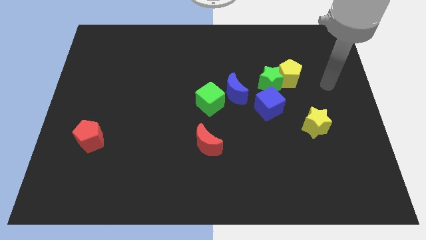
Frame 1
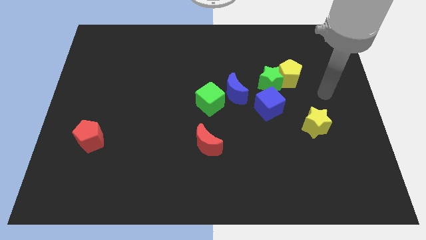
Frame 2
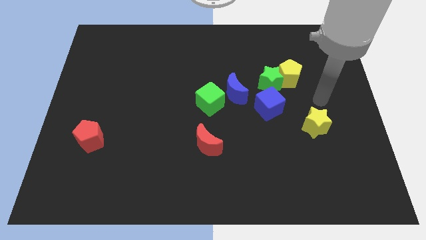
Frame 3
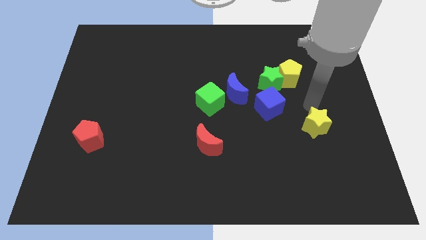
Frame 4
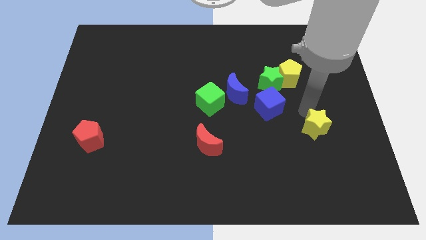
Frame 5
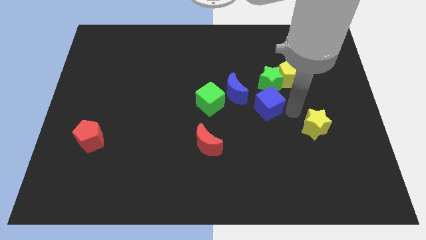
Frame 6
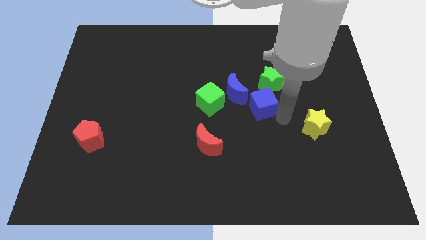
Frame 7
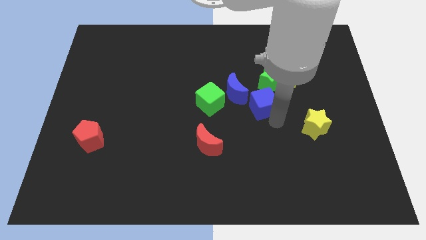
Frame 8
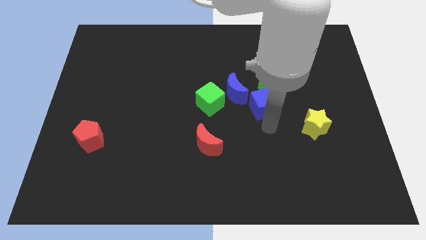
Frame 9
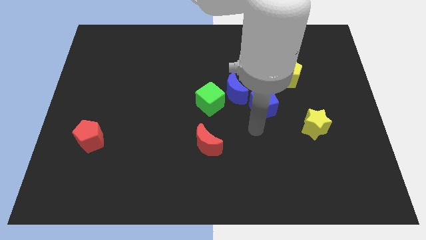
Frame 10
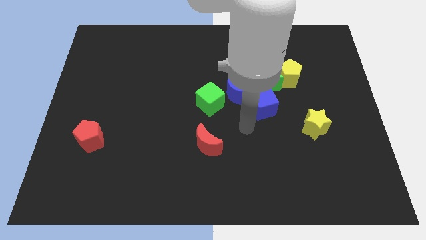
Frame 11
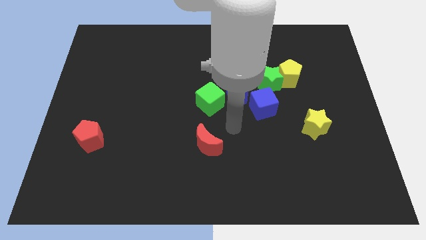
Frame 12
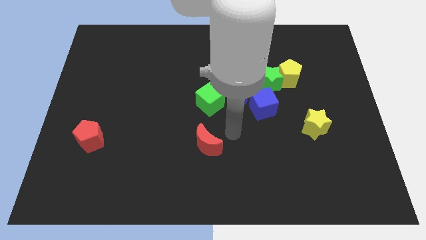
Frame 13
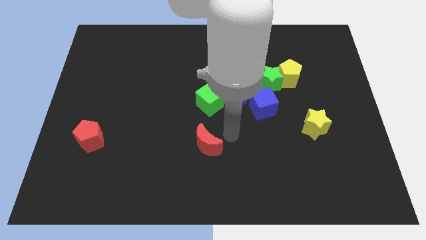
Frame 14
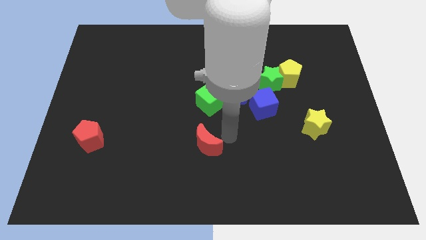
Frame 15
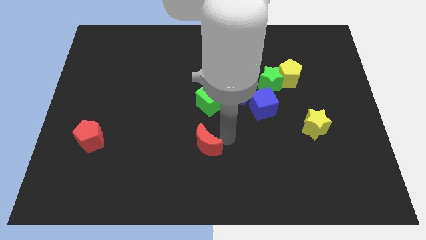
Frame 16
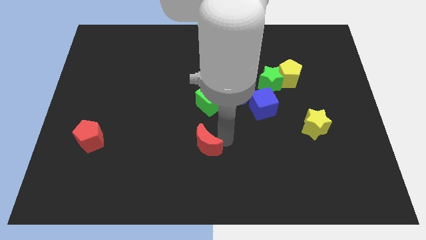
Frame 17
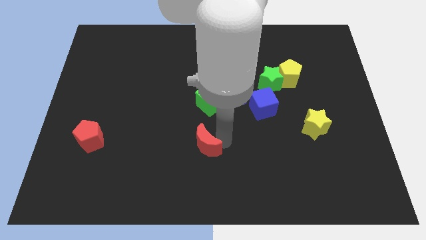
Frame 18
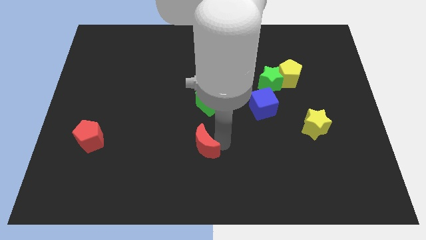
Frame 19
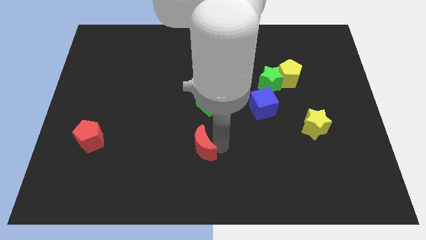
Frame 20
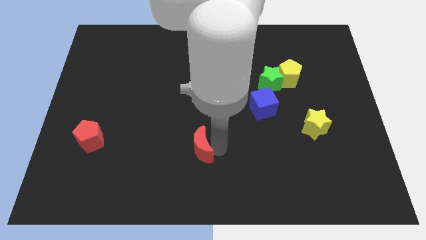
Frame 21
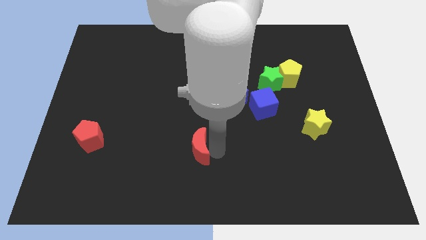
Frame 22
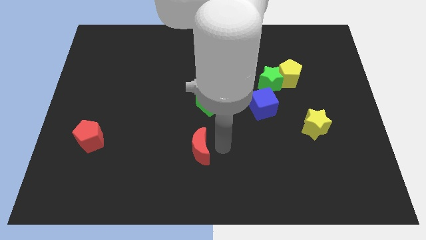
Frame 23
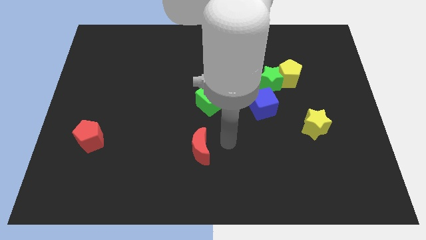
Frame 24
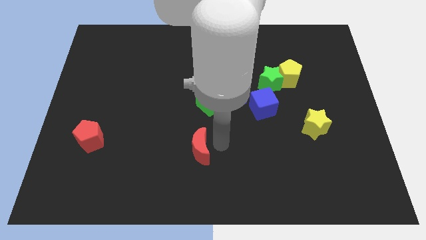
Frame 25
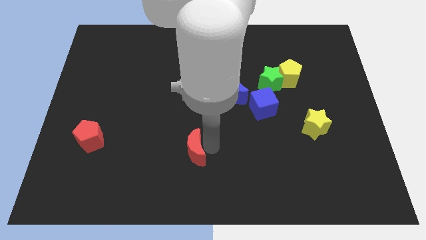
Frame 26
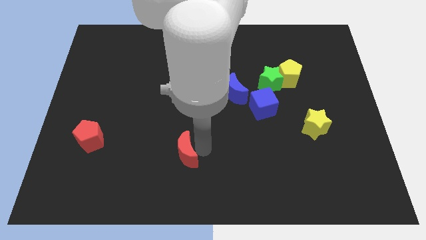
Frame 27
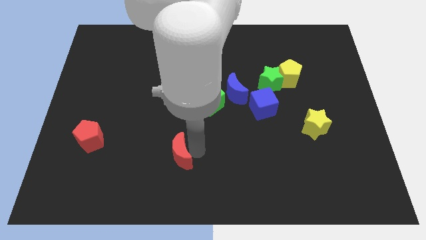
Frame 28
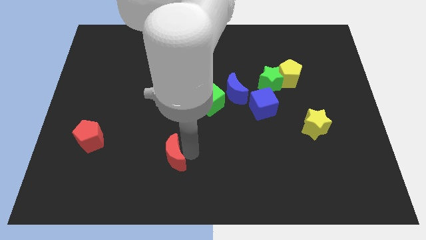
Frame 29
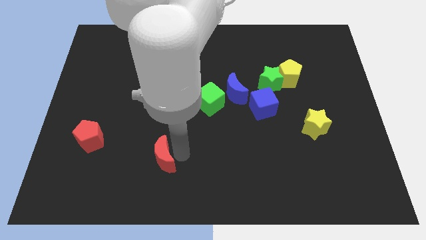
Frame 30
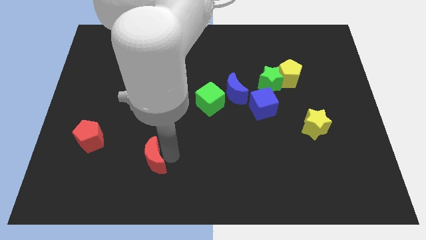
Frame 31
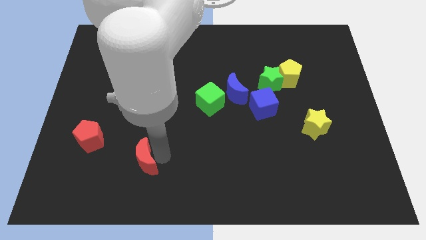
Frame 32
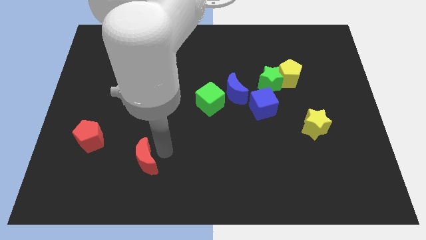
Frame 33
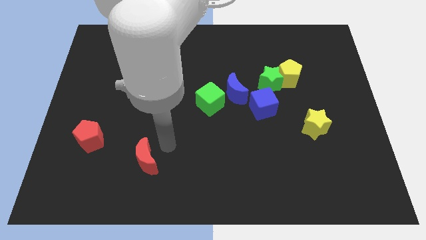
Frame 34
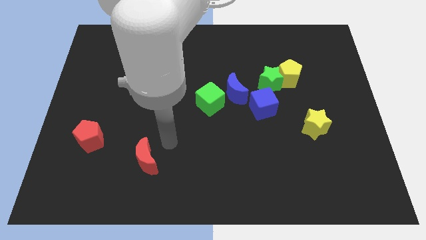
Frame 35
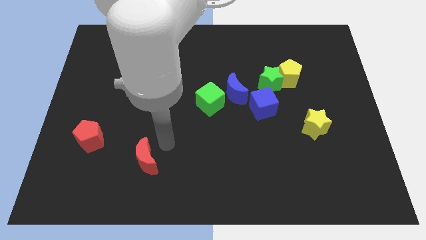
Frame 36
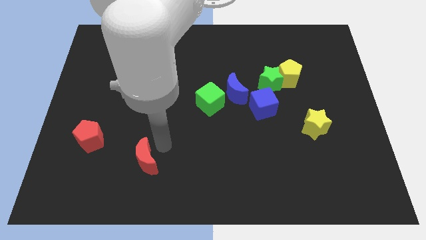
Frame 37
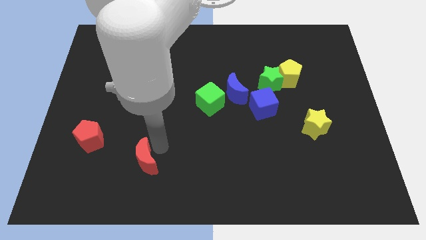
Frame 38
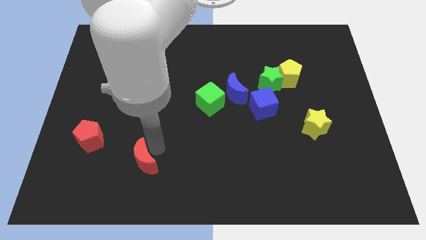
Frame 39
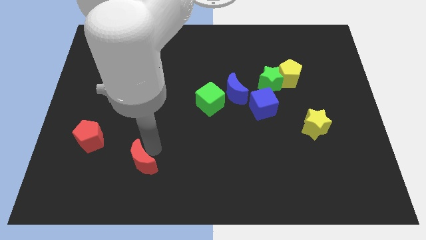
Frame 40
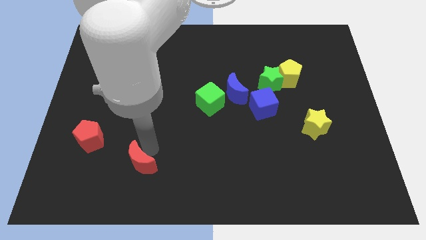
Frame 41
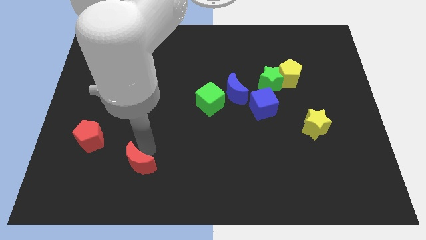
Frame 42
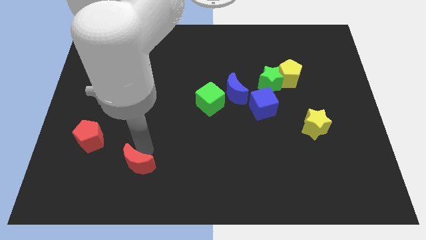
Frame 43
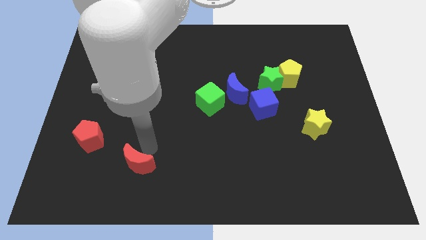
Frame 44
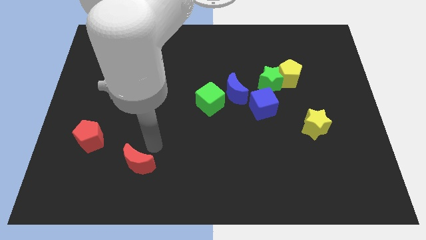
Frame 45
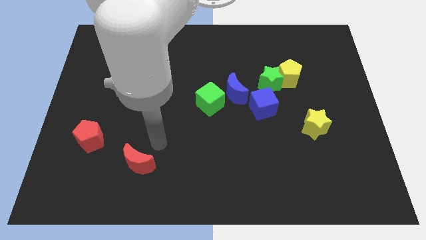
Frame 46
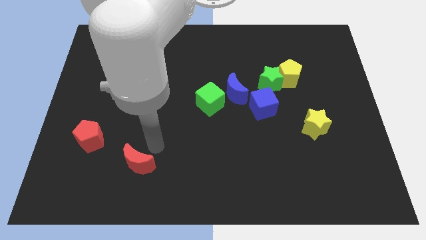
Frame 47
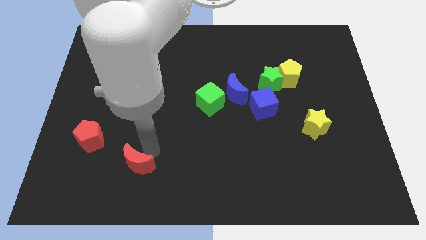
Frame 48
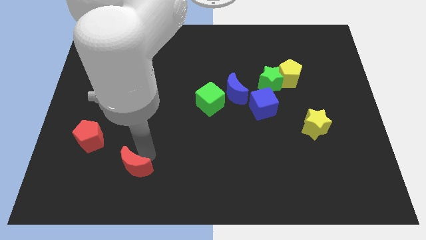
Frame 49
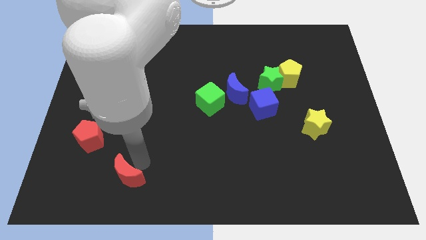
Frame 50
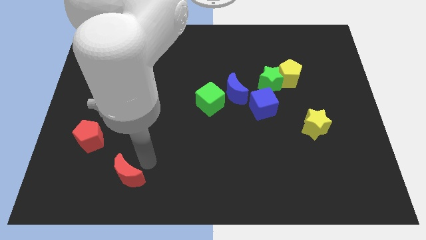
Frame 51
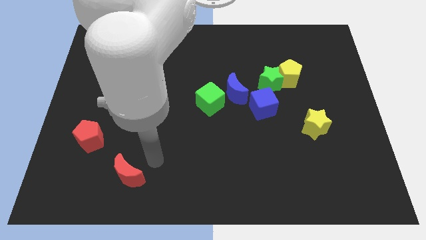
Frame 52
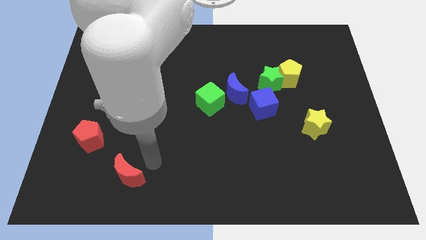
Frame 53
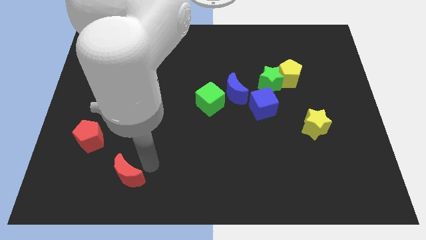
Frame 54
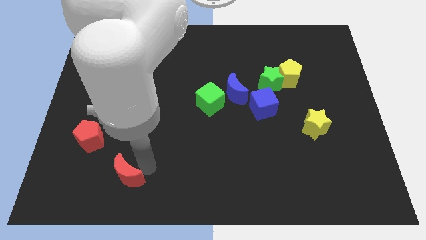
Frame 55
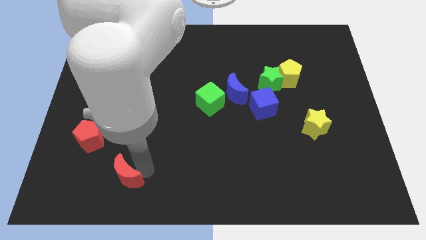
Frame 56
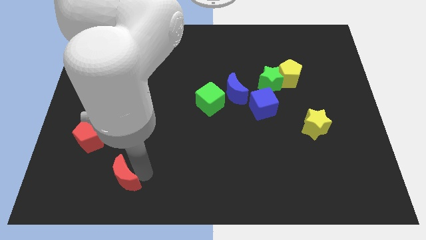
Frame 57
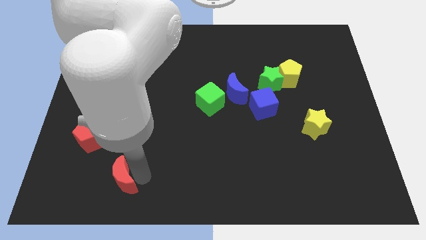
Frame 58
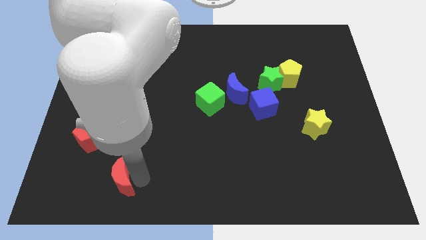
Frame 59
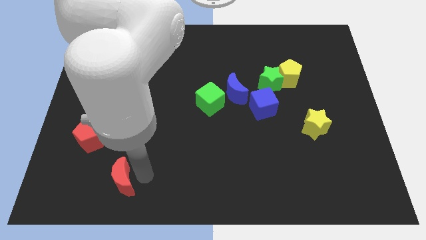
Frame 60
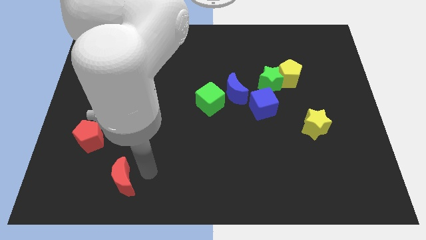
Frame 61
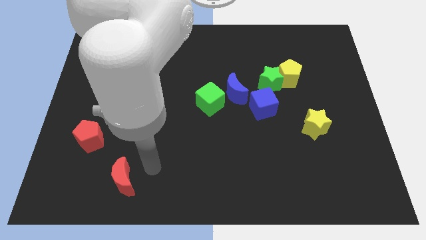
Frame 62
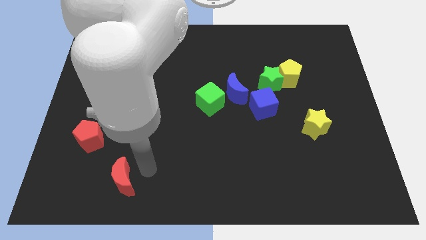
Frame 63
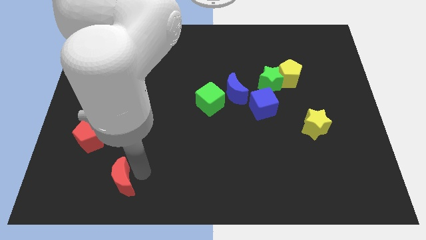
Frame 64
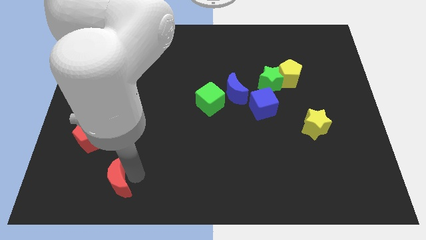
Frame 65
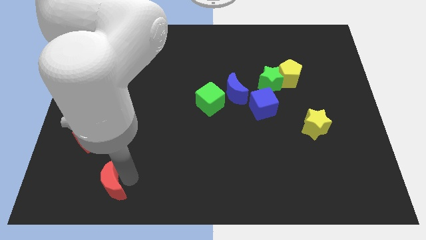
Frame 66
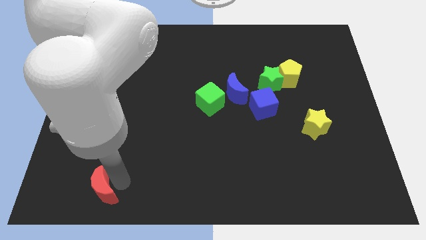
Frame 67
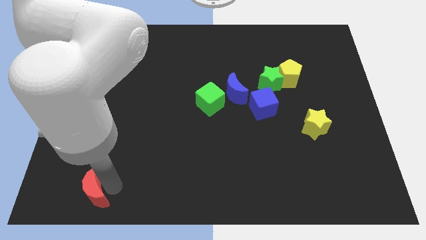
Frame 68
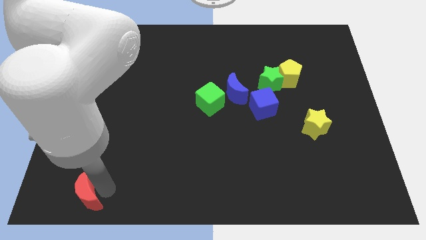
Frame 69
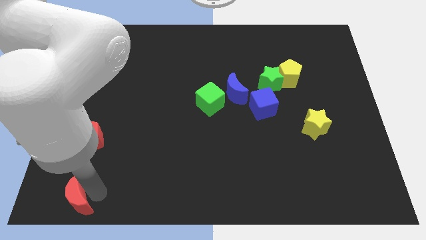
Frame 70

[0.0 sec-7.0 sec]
move the red moon to the bottom left of the board

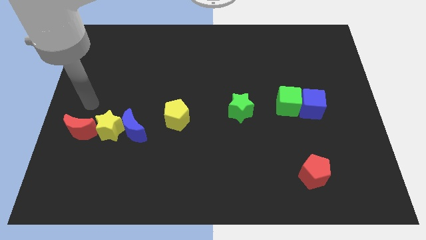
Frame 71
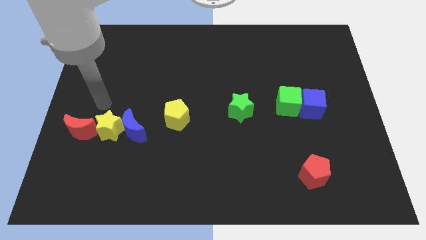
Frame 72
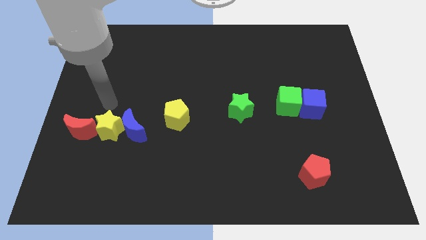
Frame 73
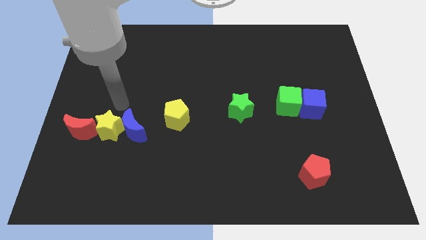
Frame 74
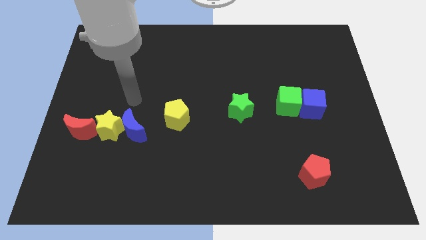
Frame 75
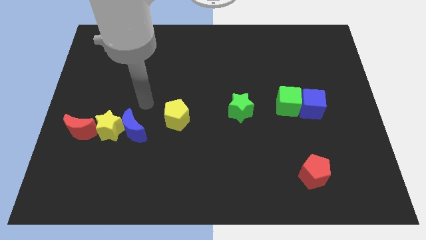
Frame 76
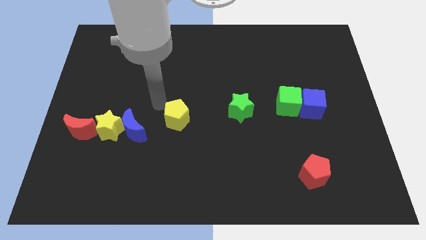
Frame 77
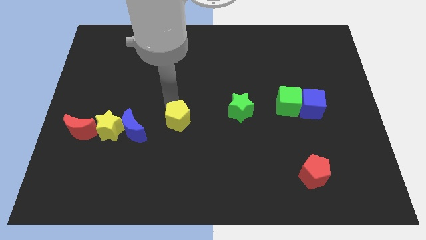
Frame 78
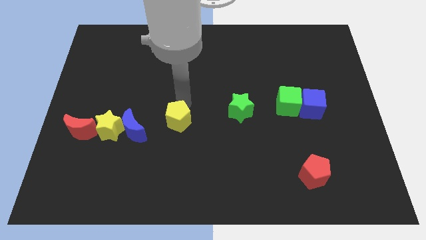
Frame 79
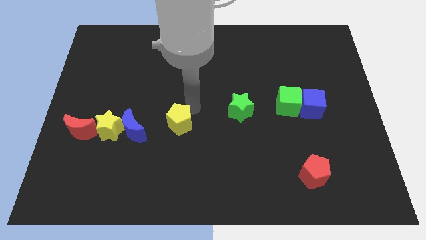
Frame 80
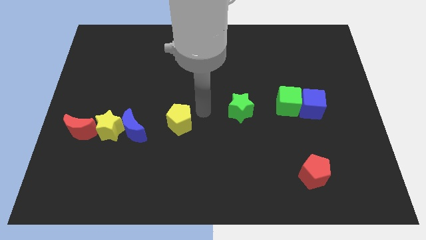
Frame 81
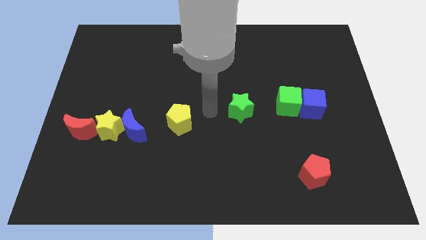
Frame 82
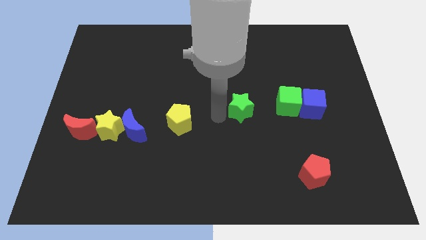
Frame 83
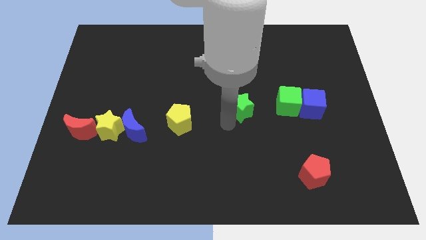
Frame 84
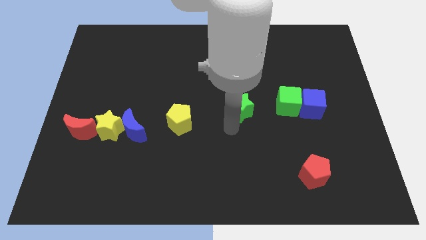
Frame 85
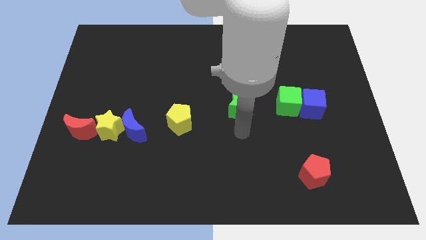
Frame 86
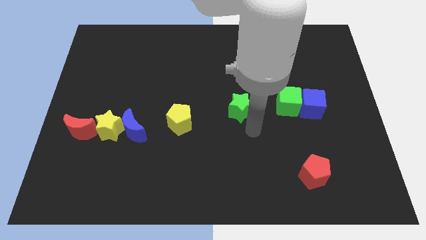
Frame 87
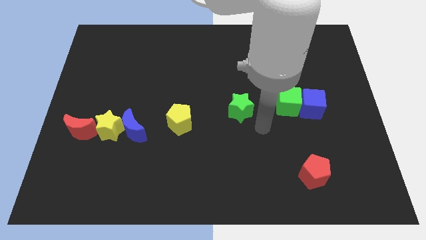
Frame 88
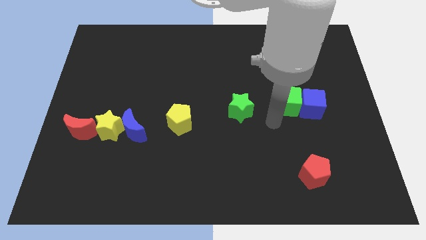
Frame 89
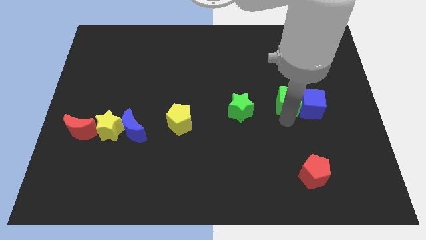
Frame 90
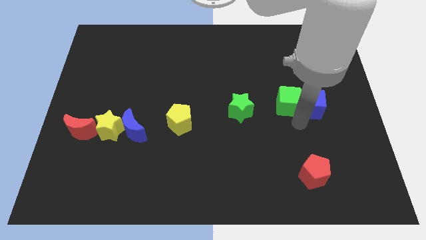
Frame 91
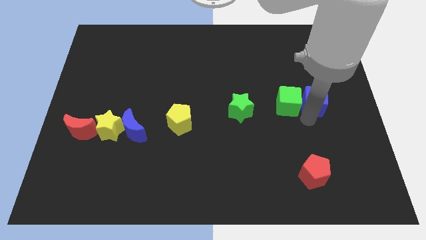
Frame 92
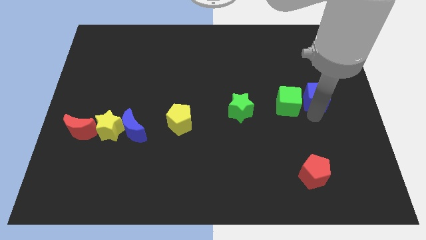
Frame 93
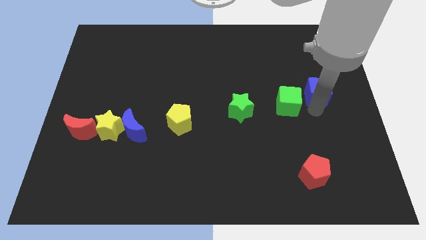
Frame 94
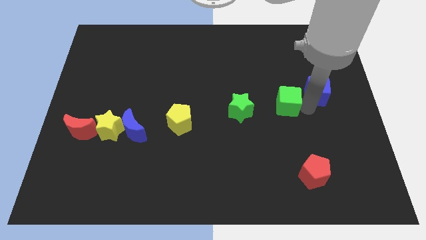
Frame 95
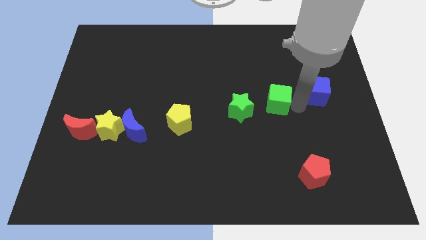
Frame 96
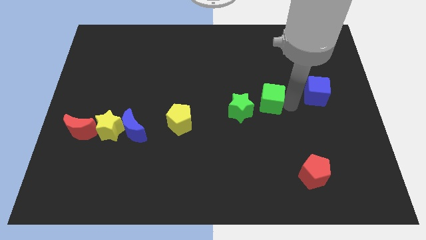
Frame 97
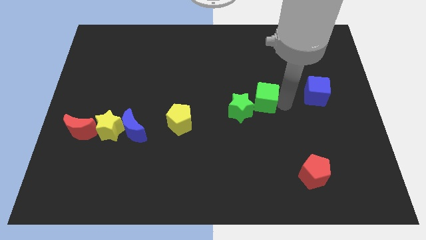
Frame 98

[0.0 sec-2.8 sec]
put the green cube to the middle
